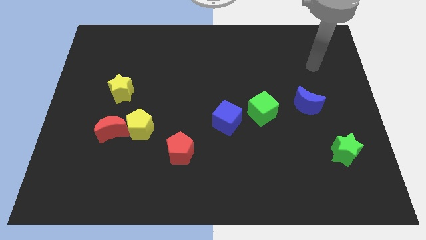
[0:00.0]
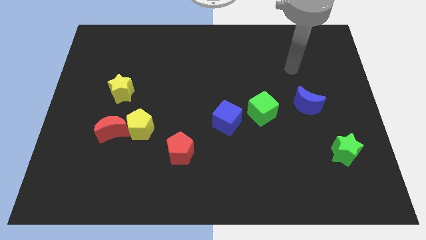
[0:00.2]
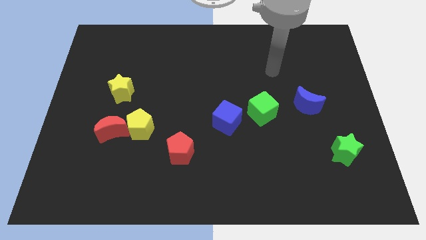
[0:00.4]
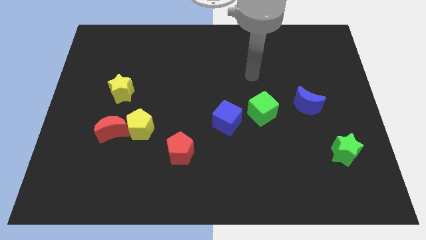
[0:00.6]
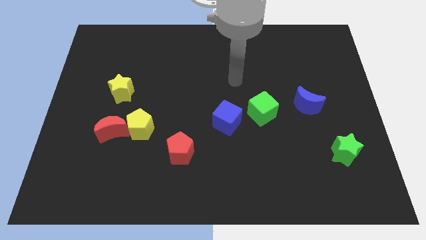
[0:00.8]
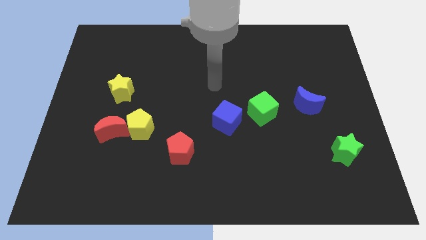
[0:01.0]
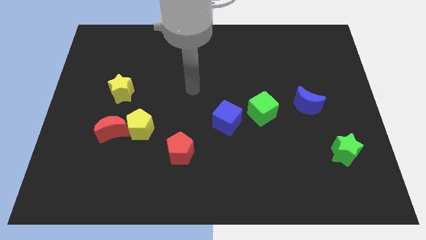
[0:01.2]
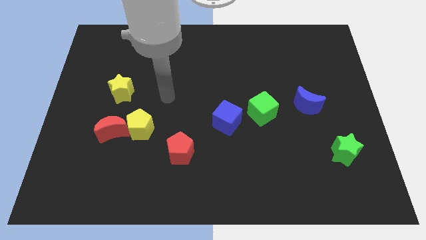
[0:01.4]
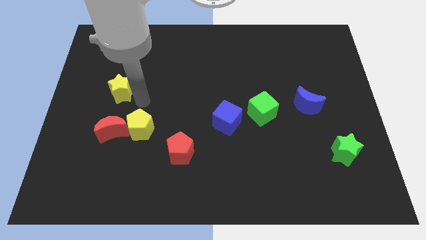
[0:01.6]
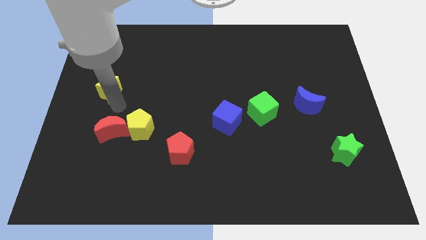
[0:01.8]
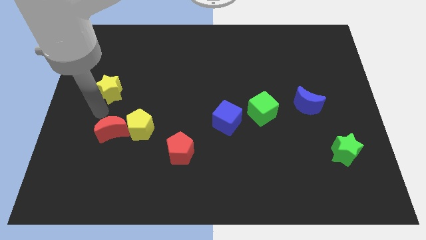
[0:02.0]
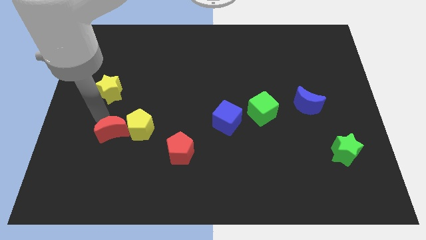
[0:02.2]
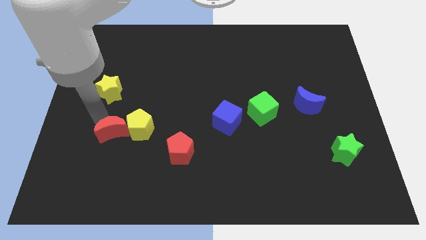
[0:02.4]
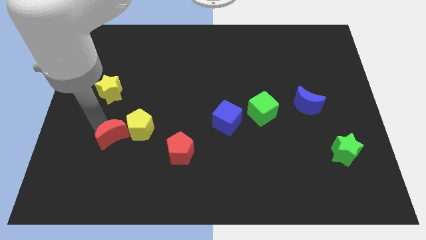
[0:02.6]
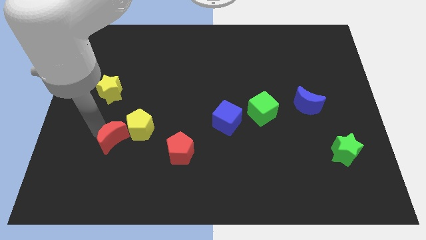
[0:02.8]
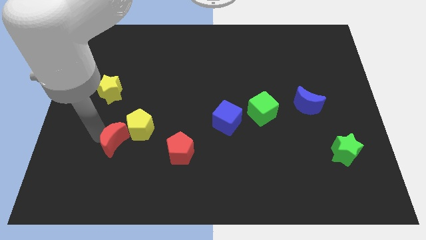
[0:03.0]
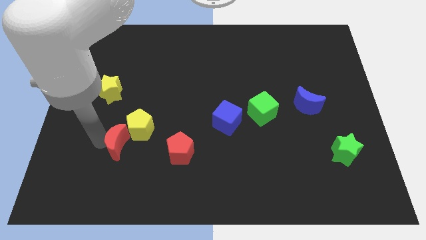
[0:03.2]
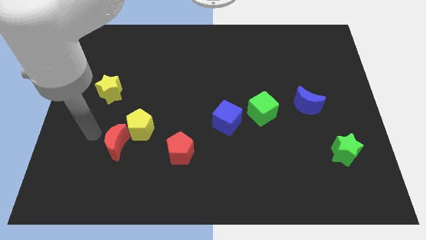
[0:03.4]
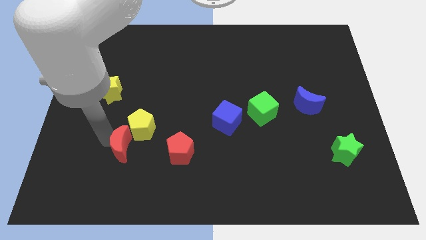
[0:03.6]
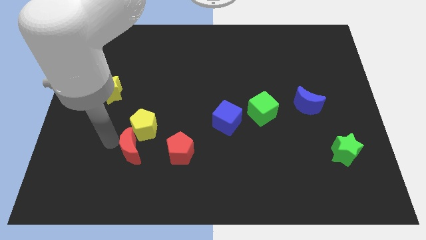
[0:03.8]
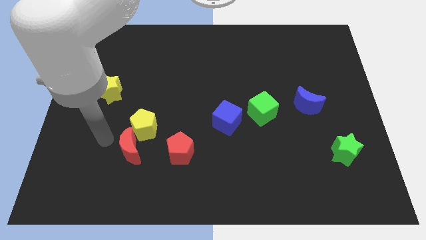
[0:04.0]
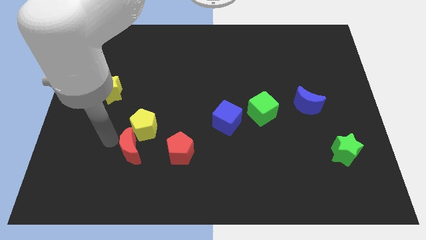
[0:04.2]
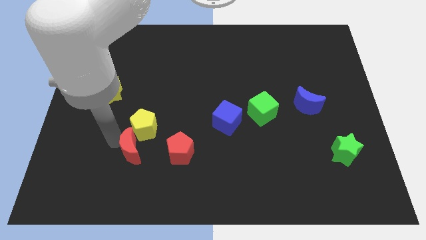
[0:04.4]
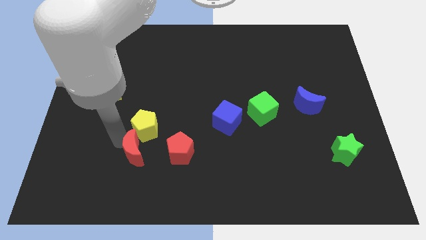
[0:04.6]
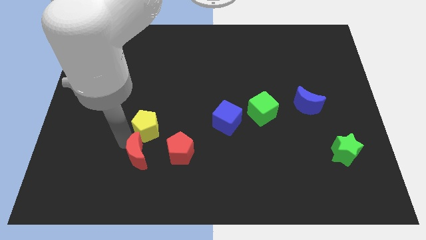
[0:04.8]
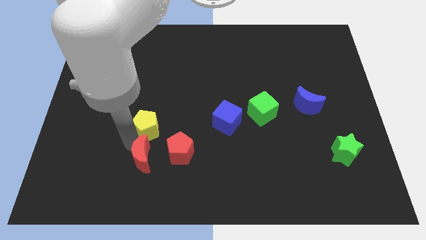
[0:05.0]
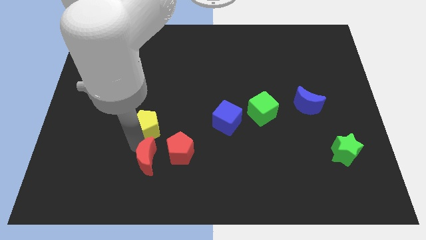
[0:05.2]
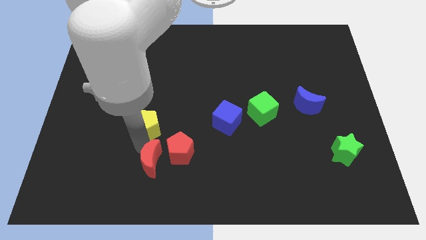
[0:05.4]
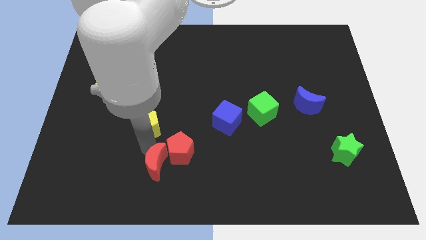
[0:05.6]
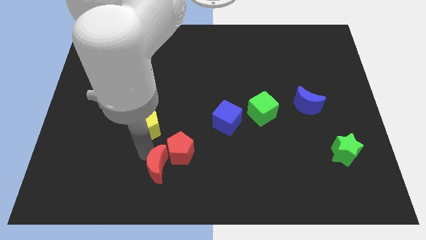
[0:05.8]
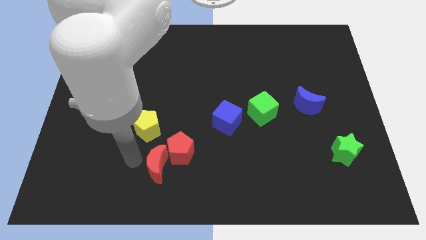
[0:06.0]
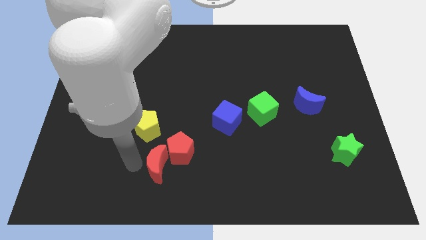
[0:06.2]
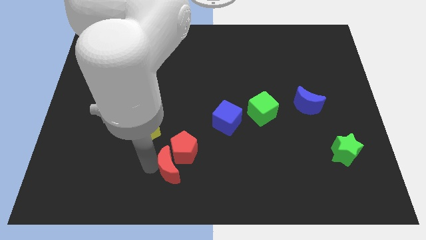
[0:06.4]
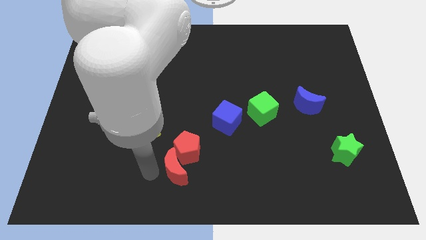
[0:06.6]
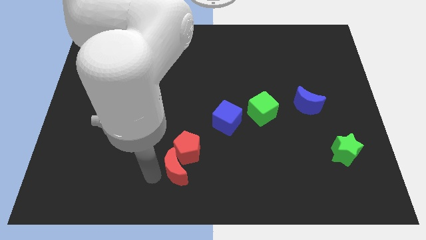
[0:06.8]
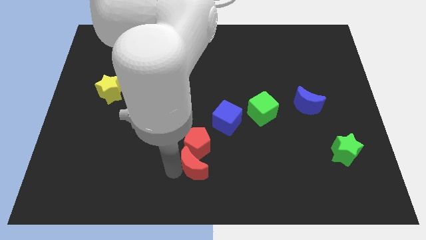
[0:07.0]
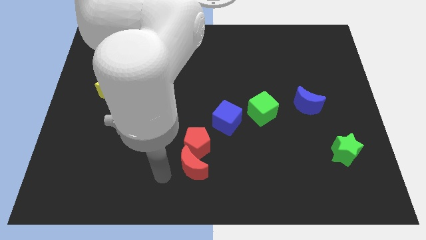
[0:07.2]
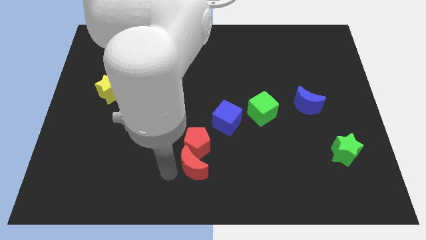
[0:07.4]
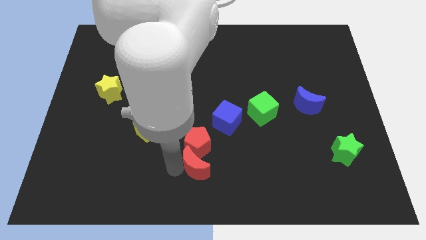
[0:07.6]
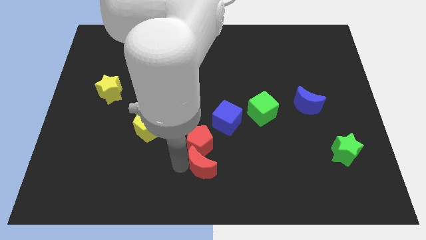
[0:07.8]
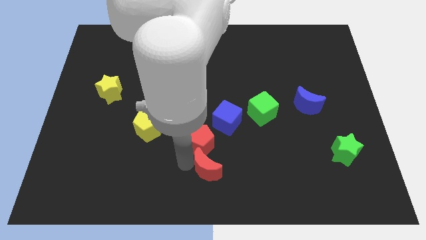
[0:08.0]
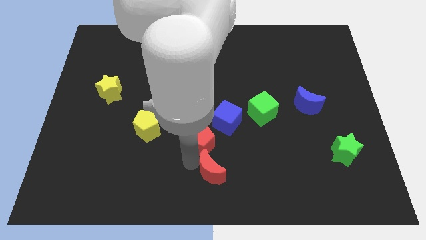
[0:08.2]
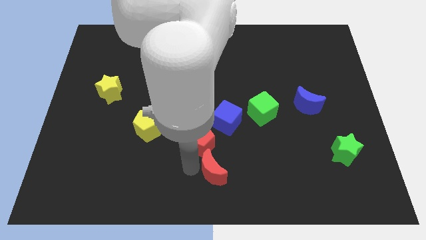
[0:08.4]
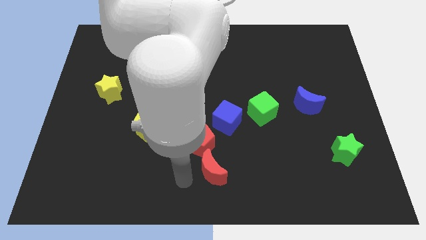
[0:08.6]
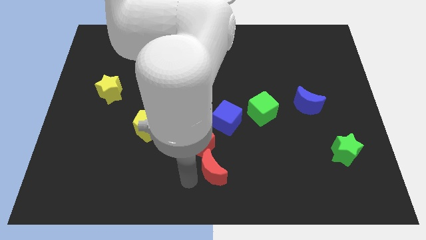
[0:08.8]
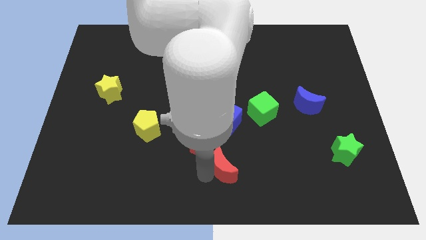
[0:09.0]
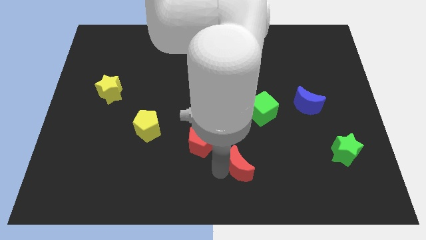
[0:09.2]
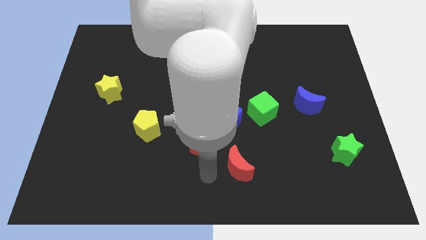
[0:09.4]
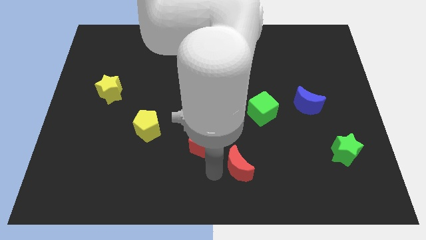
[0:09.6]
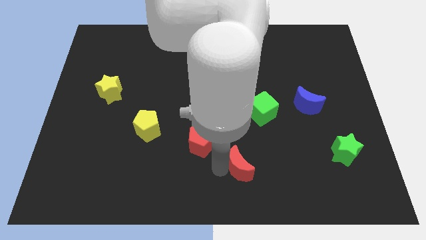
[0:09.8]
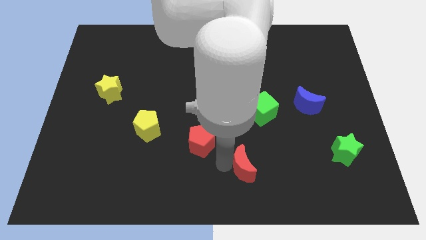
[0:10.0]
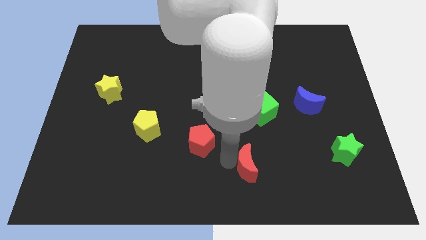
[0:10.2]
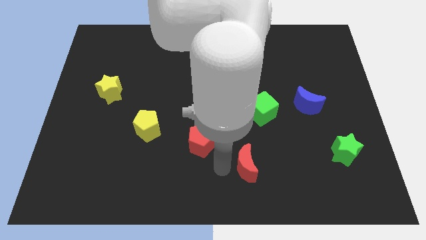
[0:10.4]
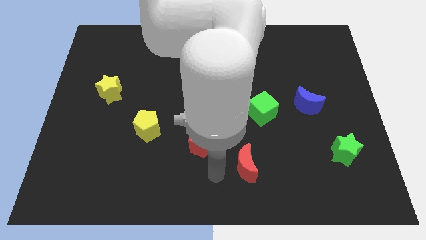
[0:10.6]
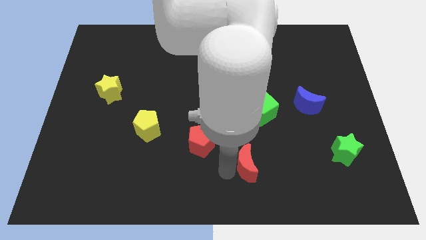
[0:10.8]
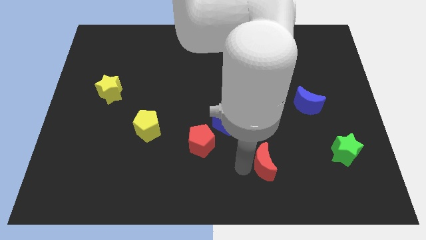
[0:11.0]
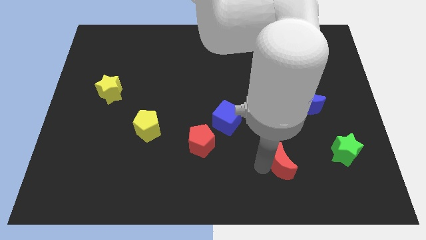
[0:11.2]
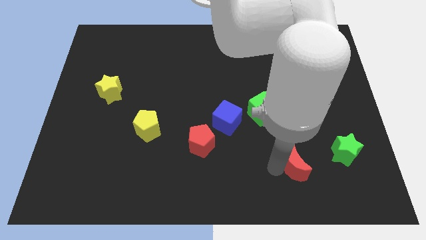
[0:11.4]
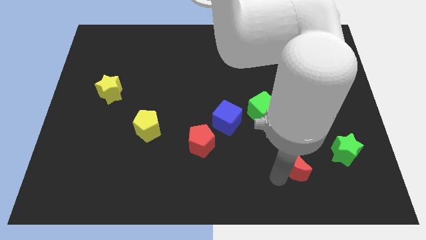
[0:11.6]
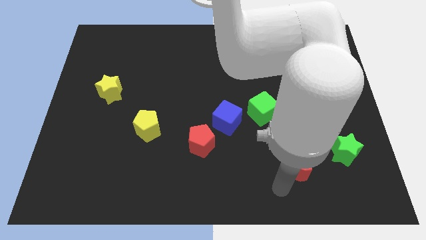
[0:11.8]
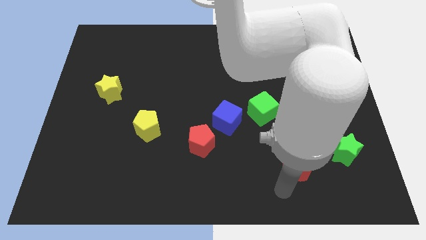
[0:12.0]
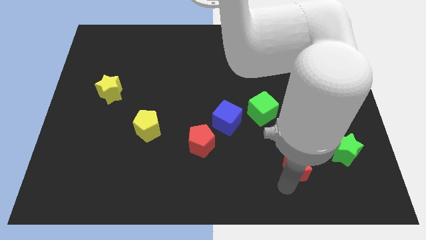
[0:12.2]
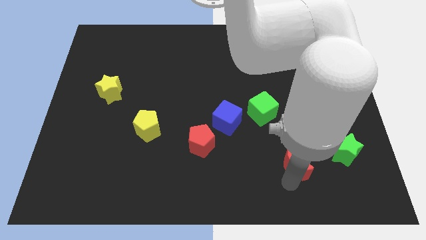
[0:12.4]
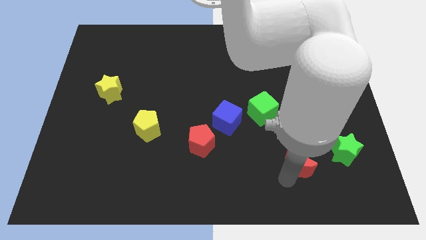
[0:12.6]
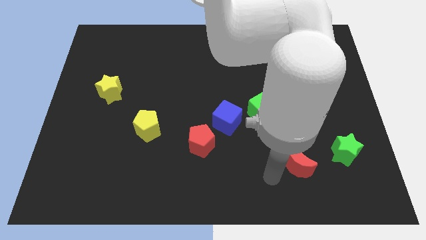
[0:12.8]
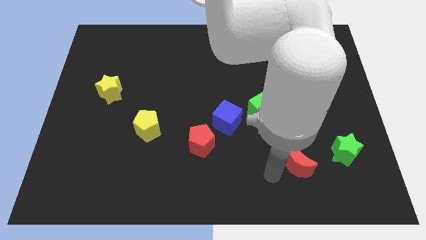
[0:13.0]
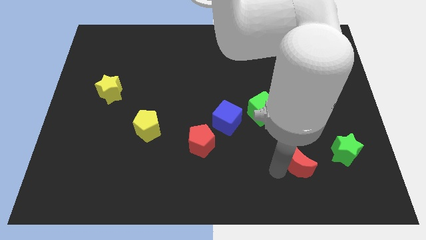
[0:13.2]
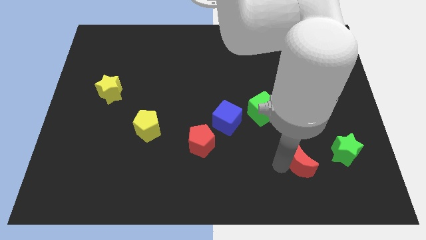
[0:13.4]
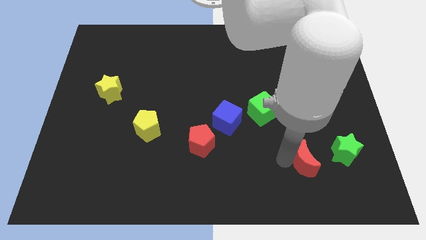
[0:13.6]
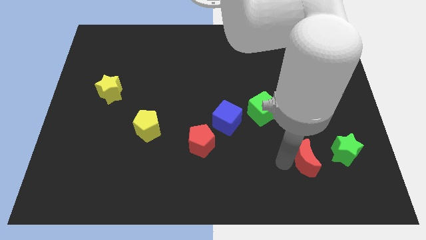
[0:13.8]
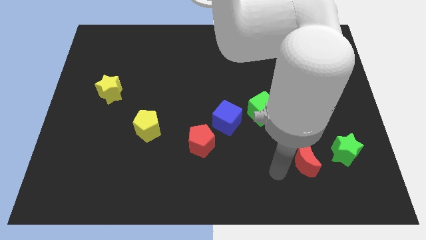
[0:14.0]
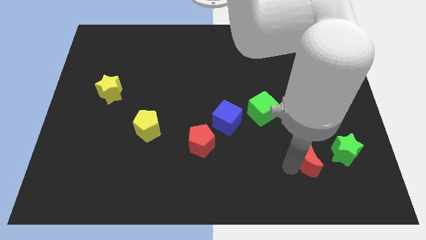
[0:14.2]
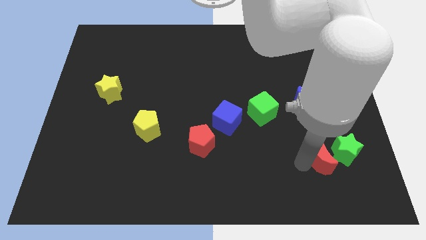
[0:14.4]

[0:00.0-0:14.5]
move the red moon to the green star

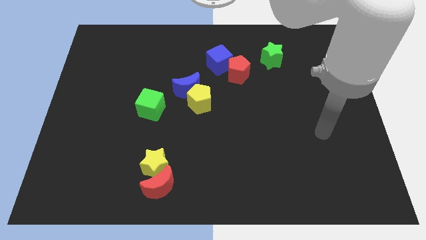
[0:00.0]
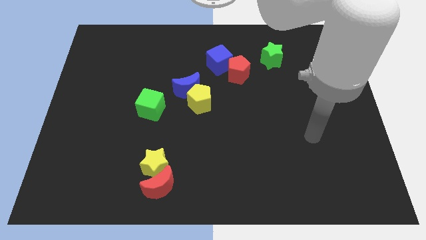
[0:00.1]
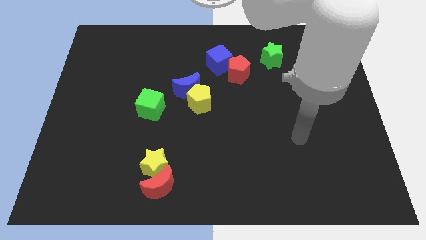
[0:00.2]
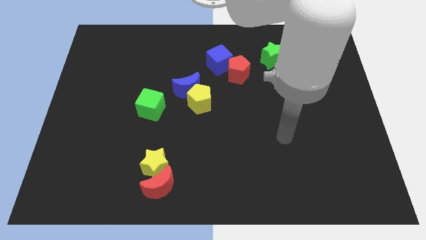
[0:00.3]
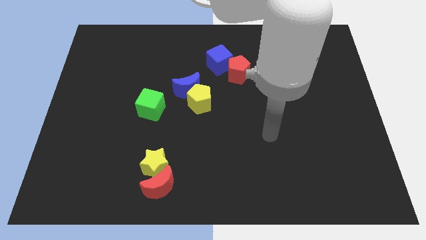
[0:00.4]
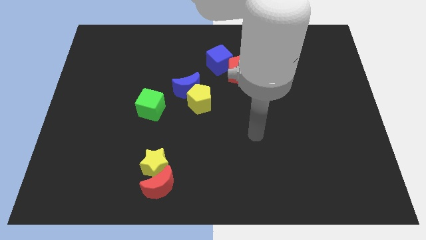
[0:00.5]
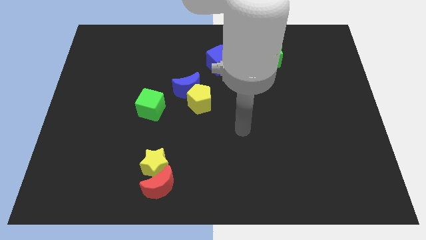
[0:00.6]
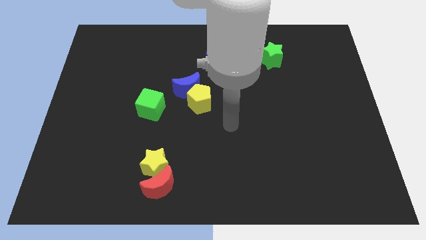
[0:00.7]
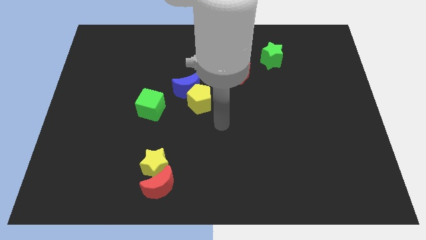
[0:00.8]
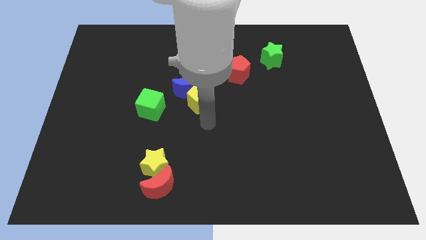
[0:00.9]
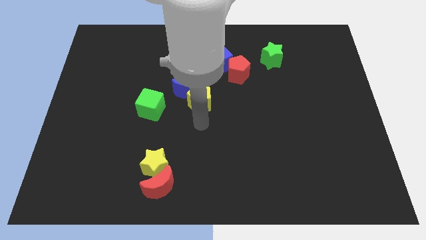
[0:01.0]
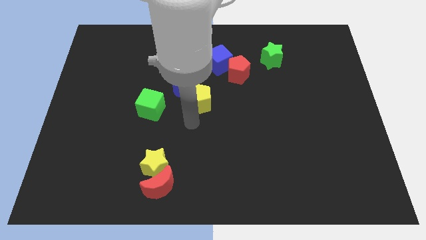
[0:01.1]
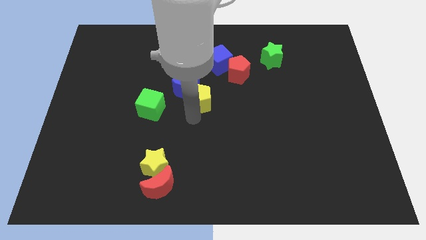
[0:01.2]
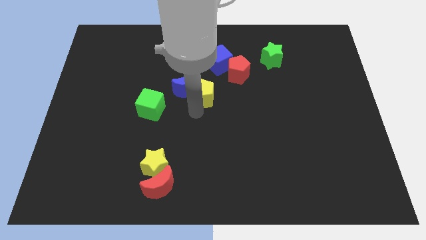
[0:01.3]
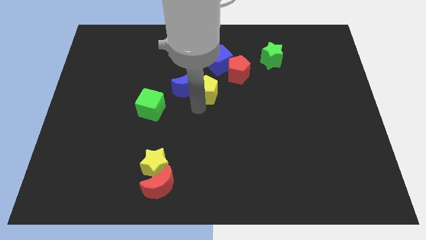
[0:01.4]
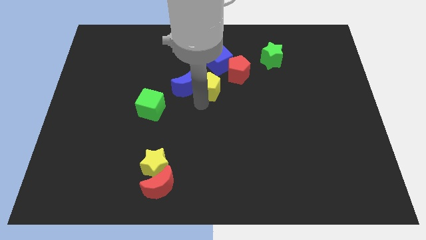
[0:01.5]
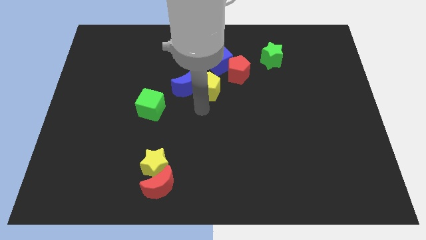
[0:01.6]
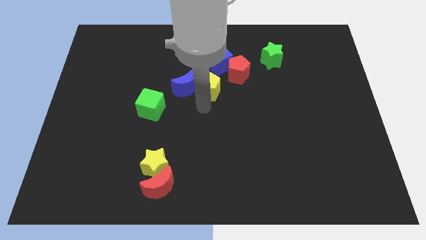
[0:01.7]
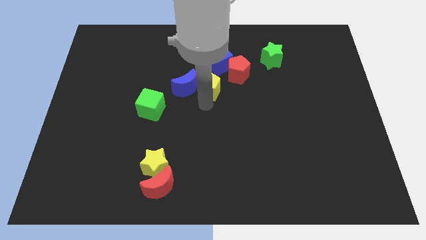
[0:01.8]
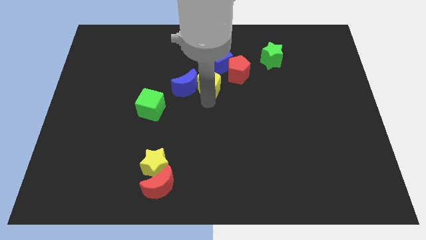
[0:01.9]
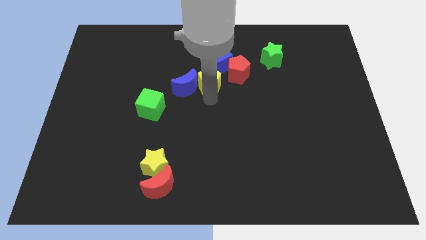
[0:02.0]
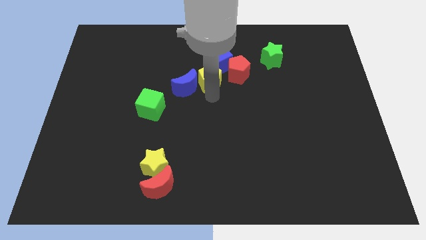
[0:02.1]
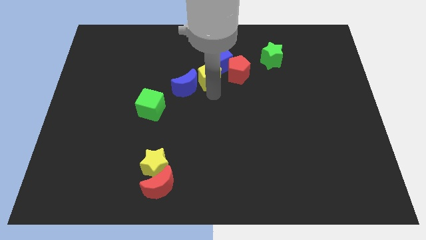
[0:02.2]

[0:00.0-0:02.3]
slide the yellow pentagon towards the blue cube
